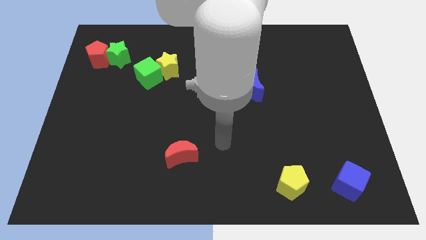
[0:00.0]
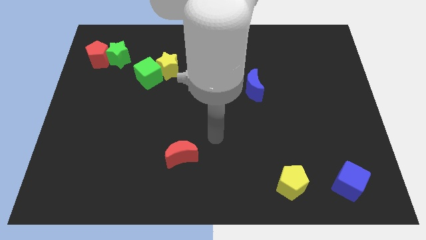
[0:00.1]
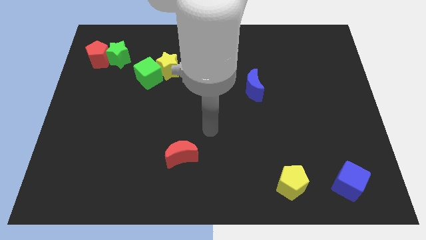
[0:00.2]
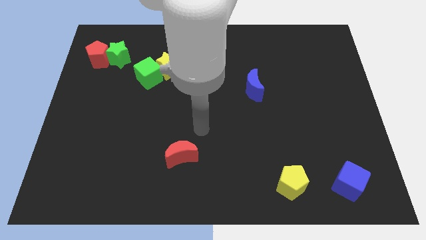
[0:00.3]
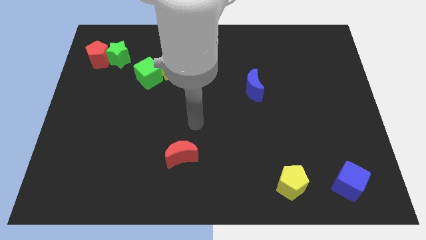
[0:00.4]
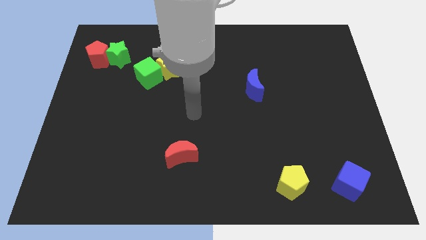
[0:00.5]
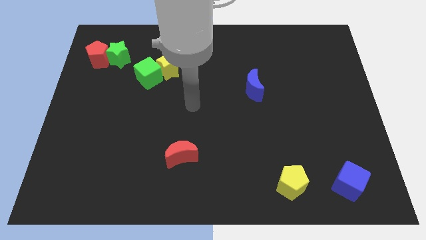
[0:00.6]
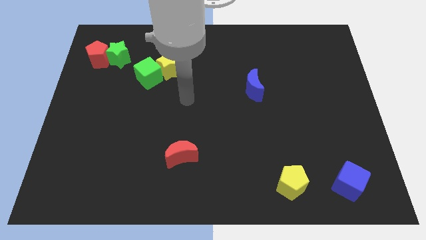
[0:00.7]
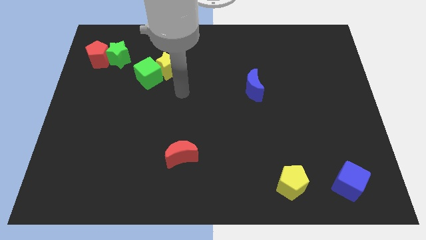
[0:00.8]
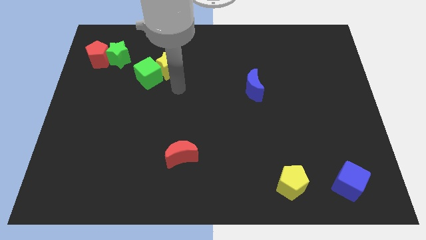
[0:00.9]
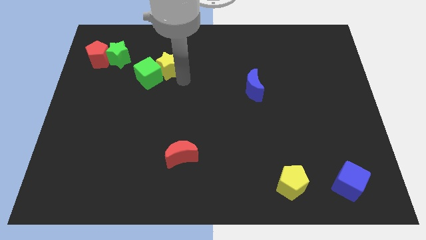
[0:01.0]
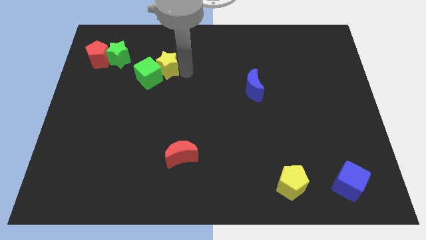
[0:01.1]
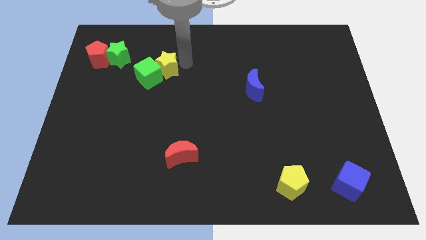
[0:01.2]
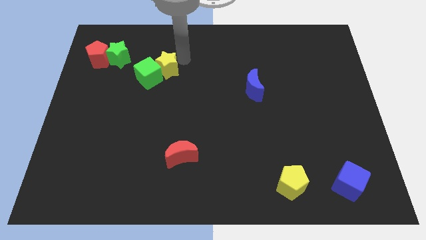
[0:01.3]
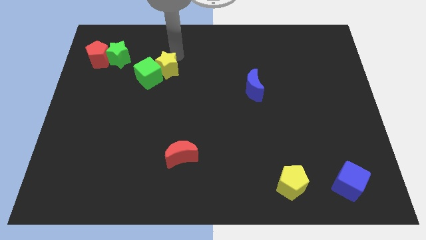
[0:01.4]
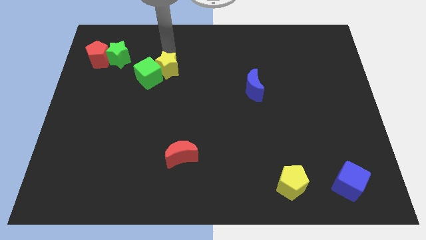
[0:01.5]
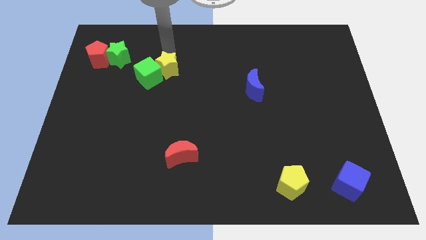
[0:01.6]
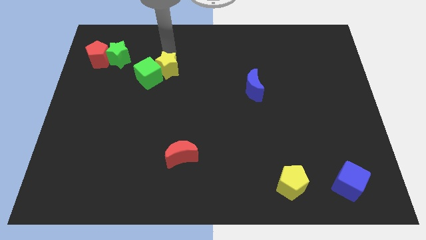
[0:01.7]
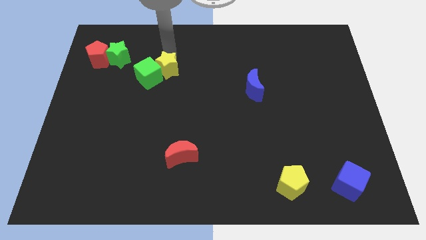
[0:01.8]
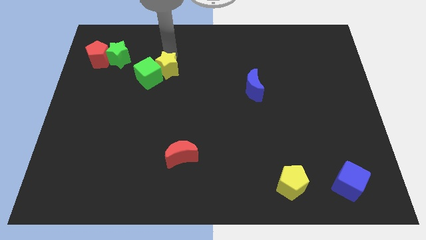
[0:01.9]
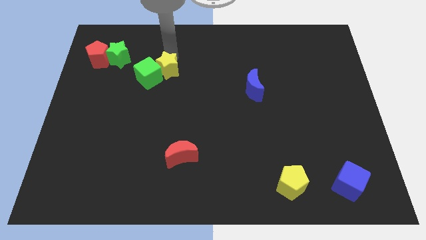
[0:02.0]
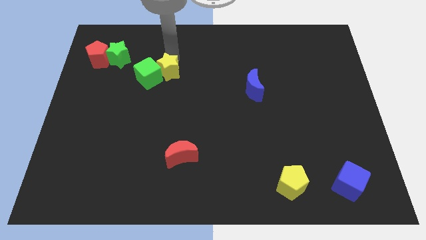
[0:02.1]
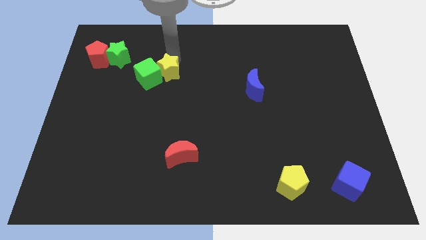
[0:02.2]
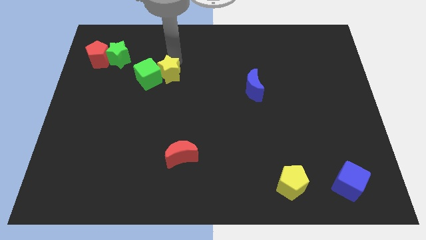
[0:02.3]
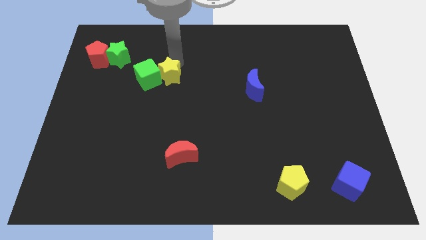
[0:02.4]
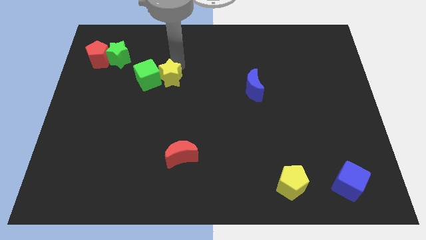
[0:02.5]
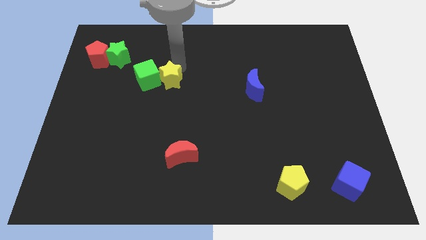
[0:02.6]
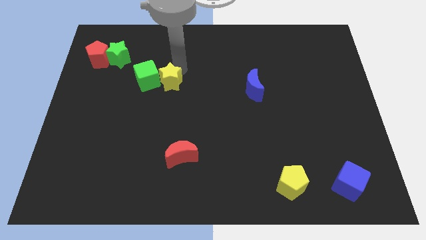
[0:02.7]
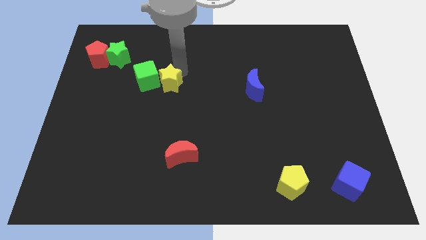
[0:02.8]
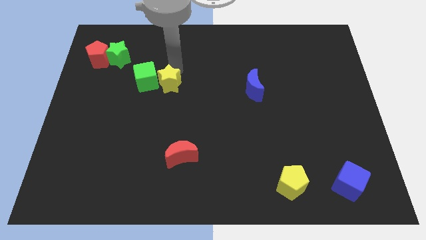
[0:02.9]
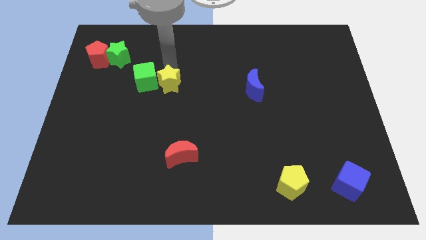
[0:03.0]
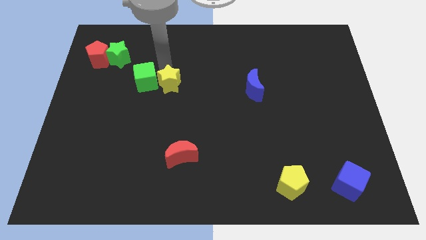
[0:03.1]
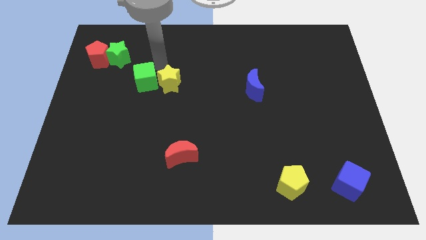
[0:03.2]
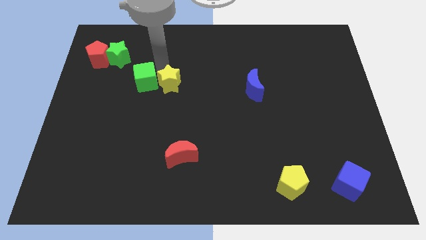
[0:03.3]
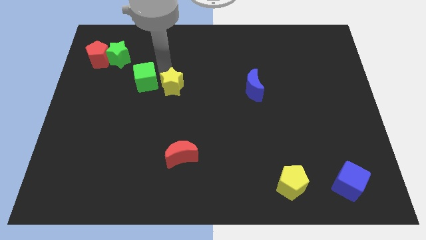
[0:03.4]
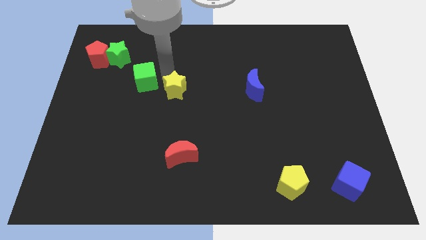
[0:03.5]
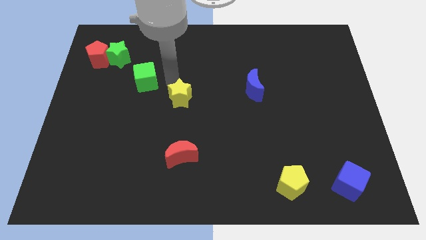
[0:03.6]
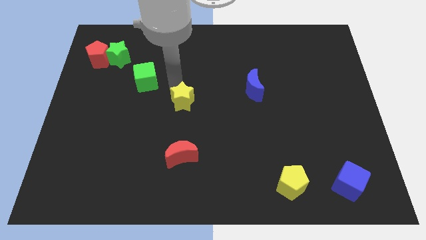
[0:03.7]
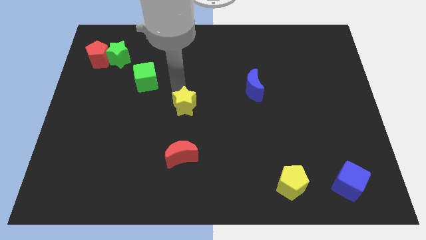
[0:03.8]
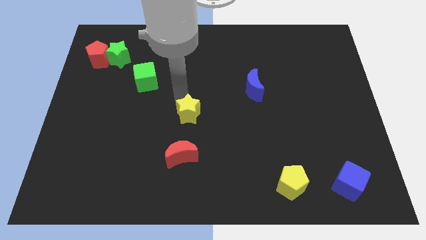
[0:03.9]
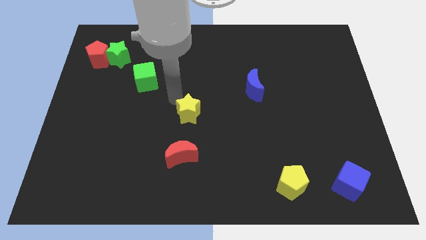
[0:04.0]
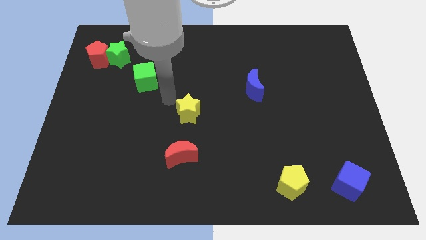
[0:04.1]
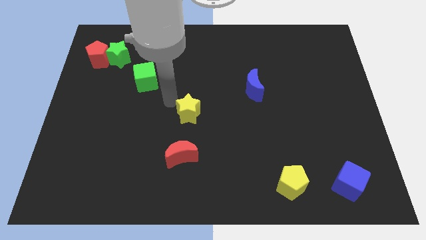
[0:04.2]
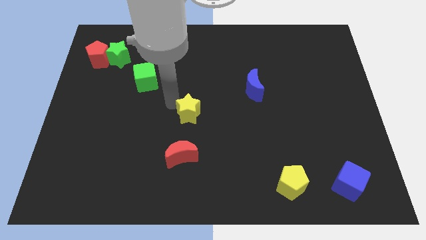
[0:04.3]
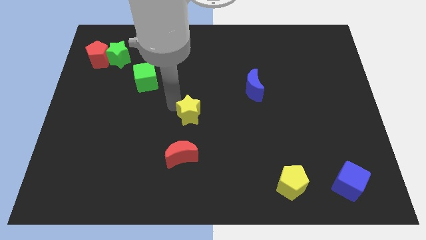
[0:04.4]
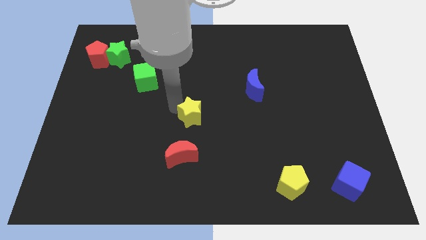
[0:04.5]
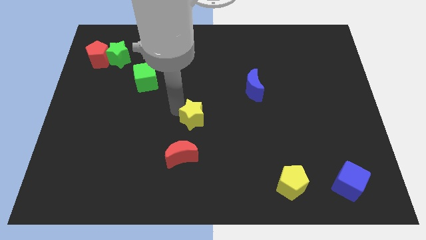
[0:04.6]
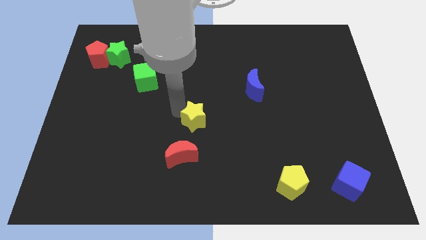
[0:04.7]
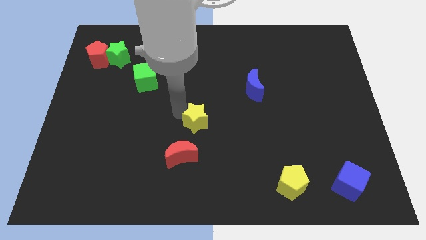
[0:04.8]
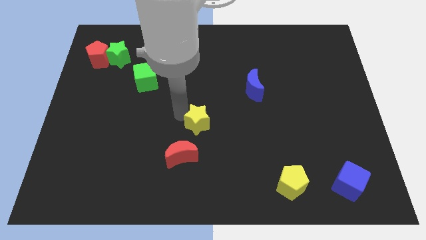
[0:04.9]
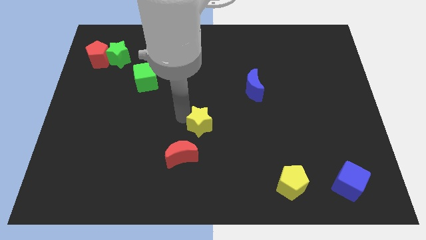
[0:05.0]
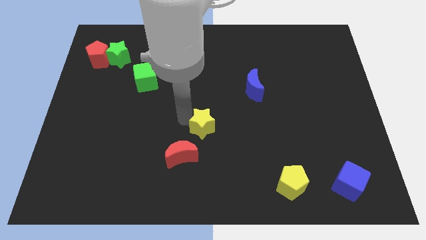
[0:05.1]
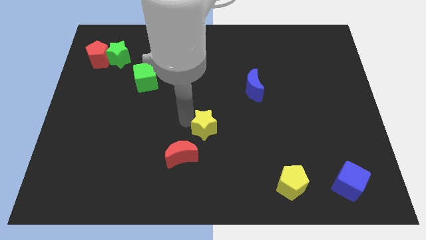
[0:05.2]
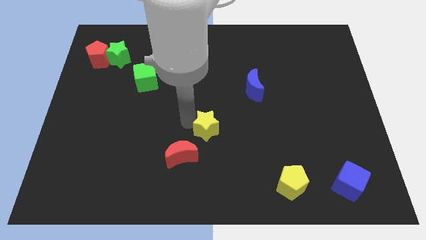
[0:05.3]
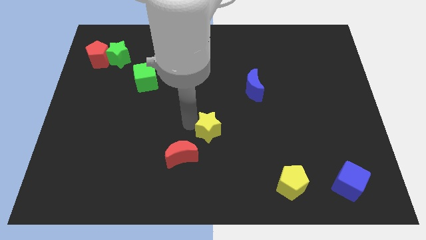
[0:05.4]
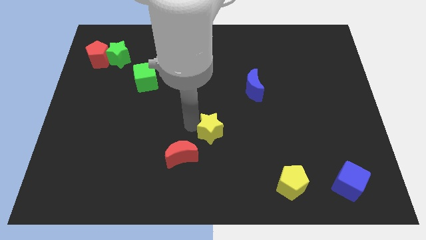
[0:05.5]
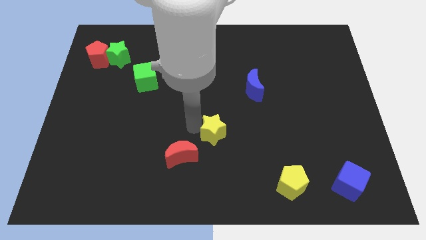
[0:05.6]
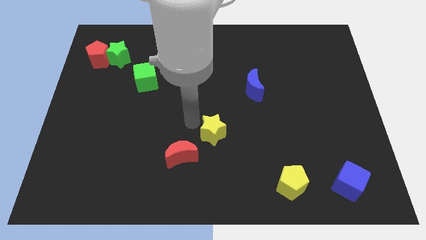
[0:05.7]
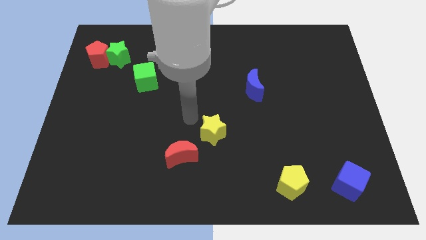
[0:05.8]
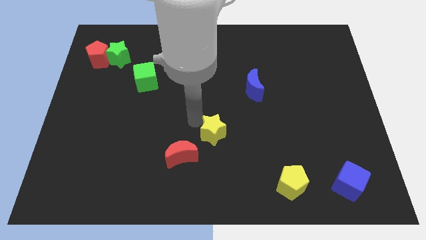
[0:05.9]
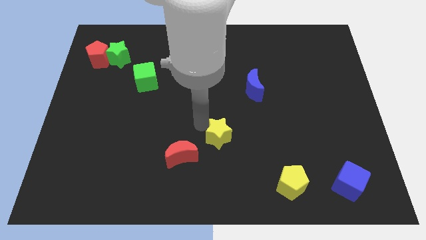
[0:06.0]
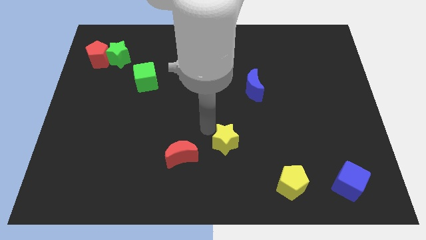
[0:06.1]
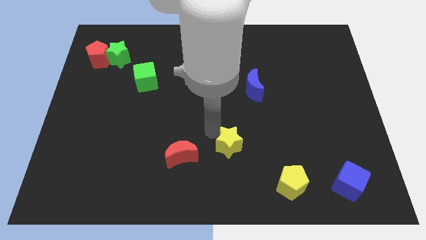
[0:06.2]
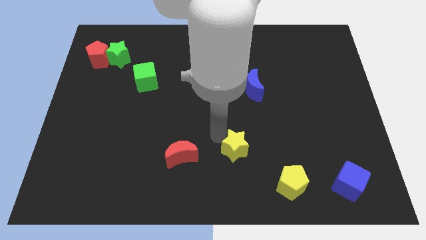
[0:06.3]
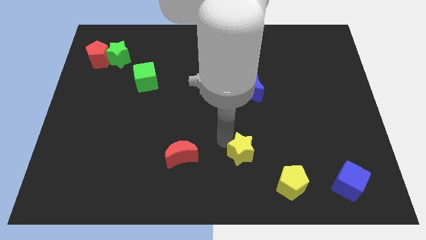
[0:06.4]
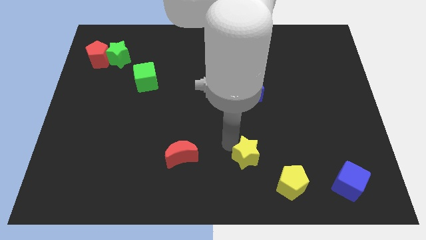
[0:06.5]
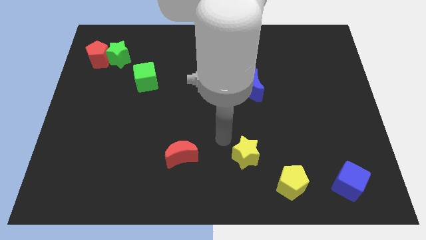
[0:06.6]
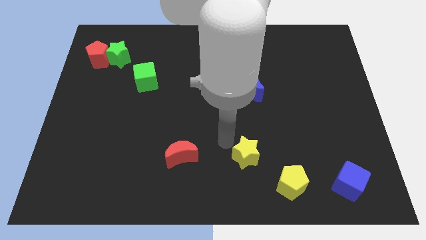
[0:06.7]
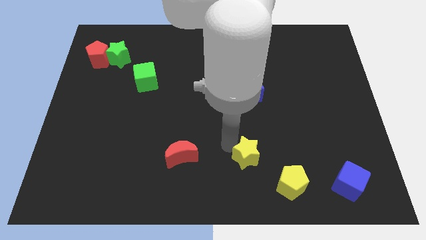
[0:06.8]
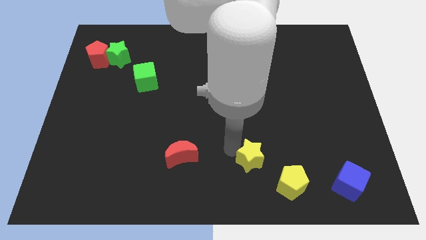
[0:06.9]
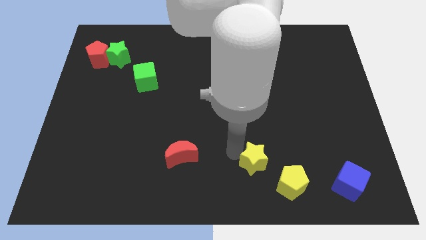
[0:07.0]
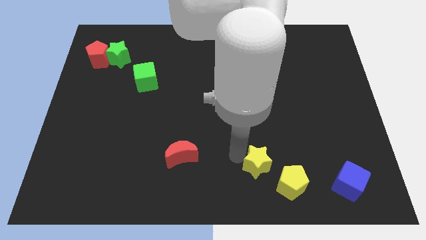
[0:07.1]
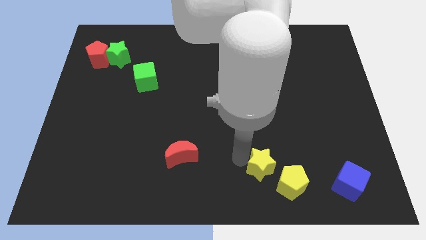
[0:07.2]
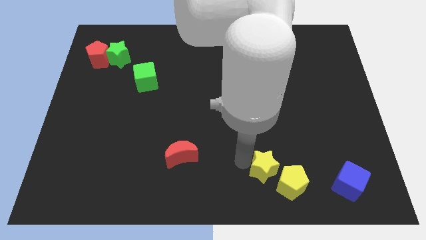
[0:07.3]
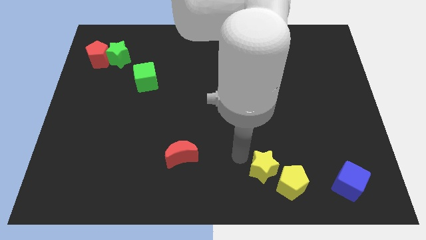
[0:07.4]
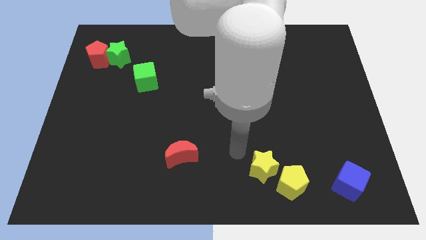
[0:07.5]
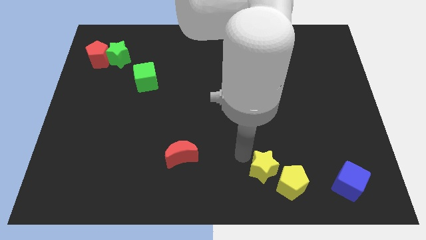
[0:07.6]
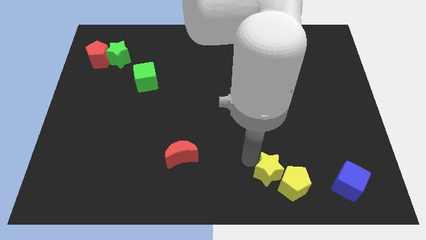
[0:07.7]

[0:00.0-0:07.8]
slide the yellow star next to the yellow pentagon
